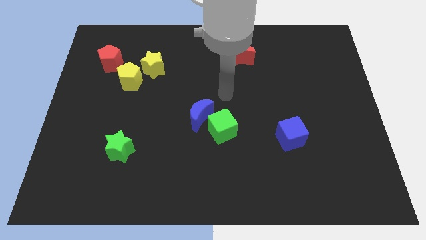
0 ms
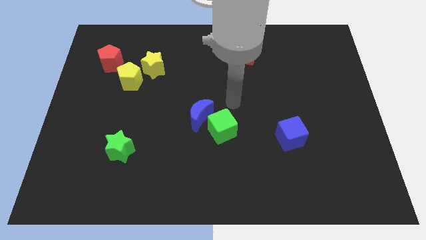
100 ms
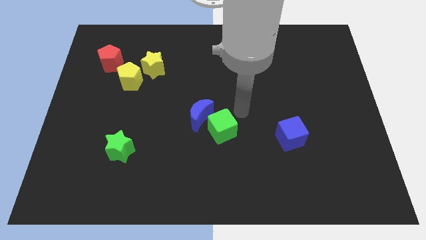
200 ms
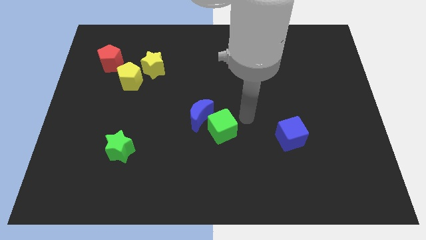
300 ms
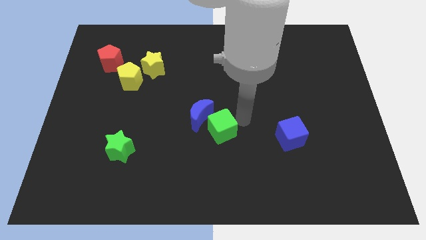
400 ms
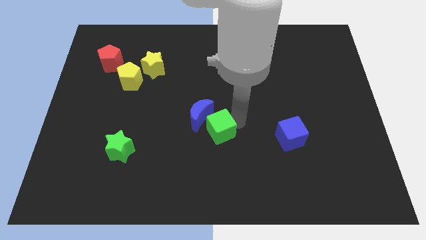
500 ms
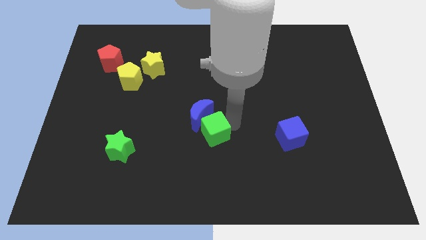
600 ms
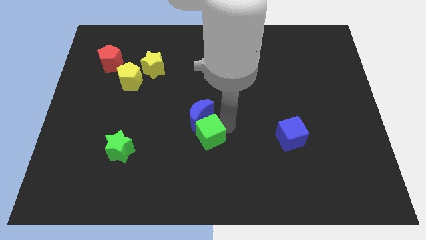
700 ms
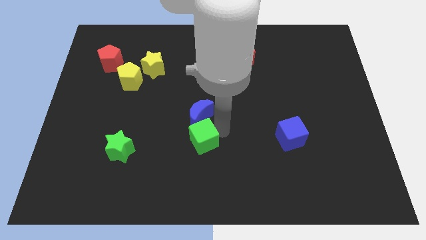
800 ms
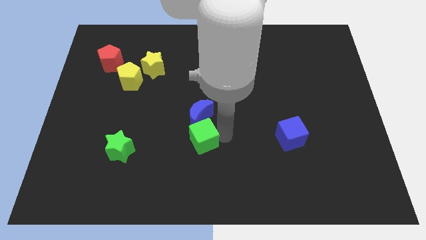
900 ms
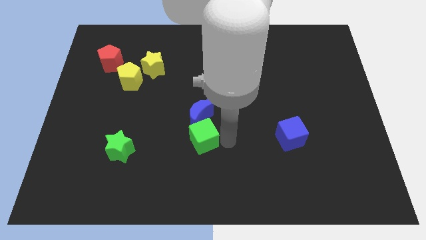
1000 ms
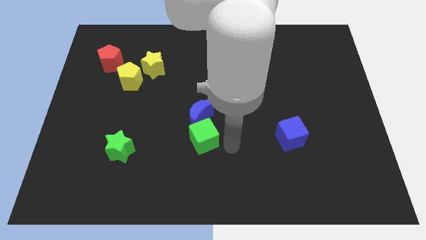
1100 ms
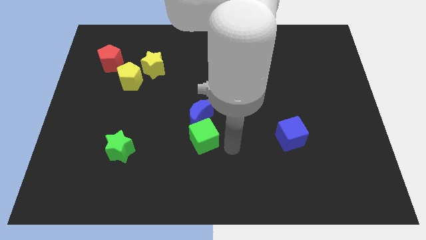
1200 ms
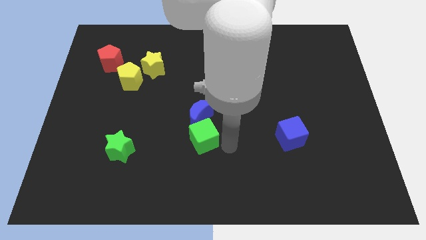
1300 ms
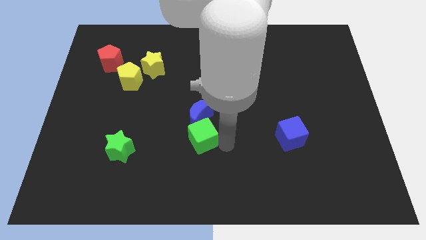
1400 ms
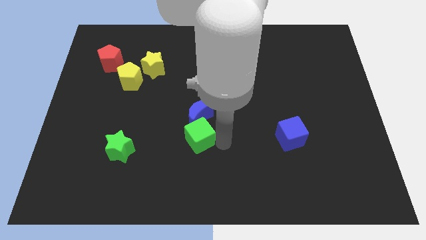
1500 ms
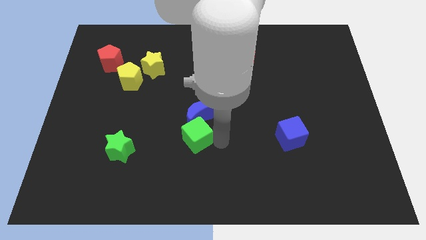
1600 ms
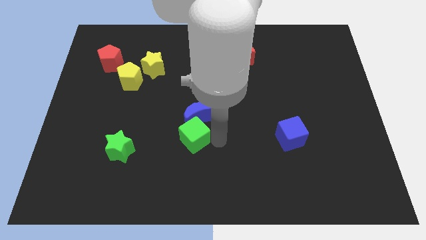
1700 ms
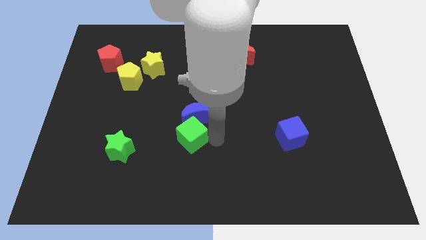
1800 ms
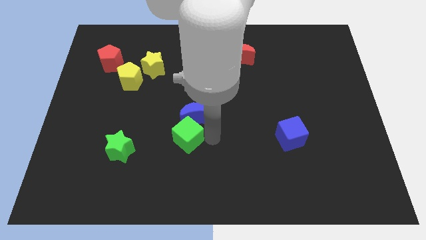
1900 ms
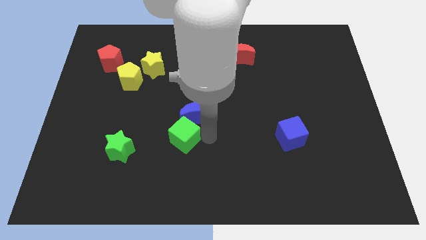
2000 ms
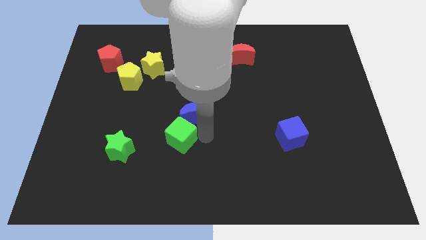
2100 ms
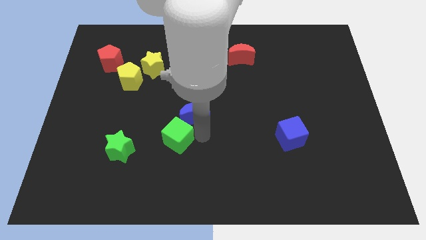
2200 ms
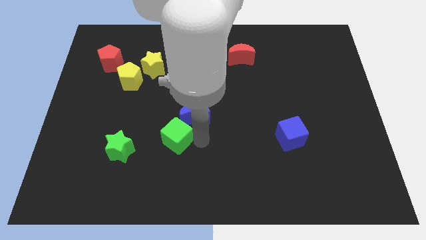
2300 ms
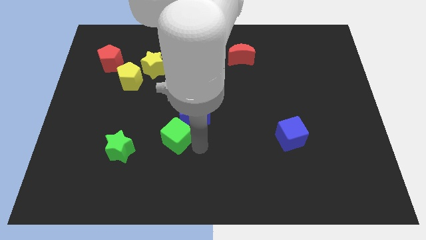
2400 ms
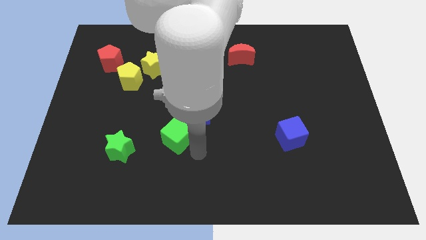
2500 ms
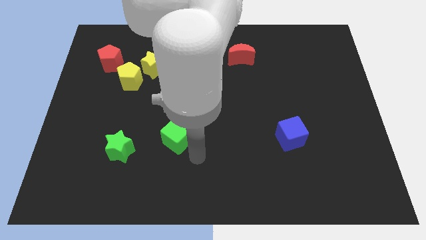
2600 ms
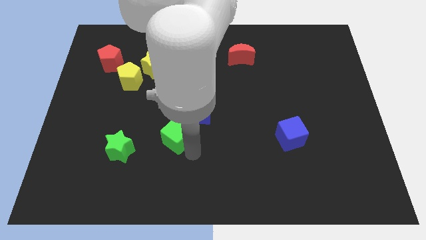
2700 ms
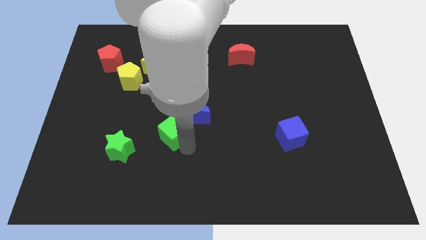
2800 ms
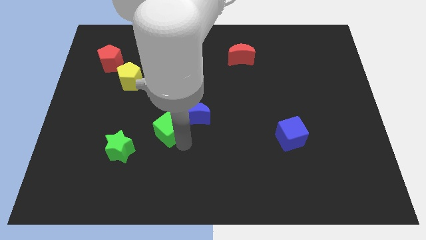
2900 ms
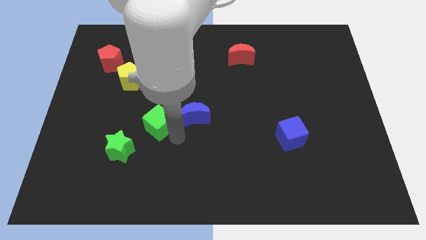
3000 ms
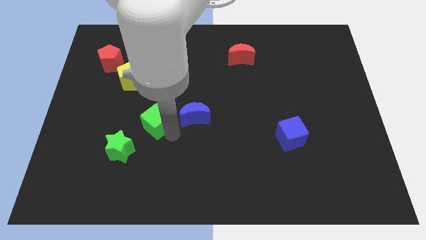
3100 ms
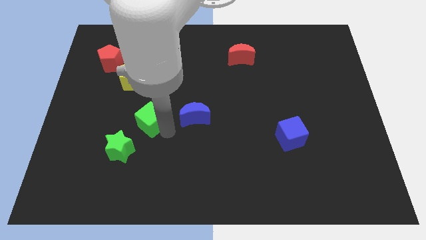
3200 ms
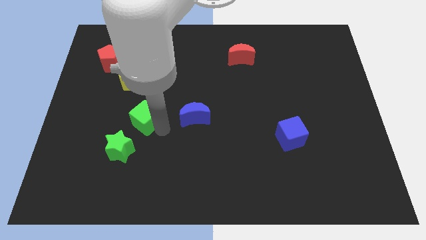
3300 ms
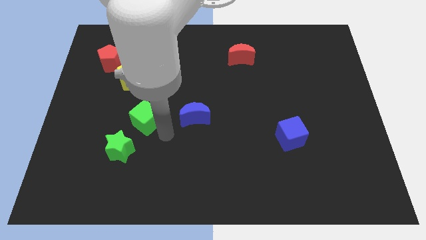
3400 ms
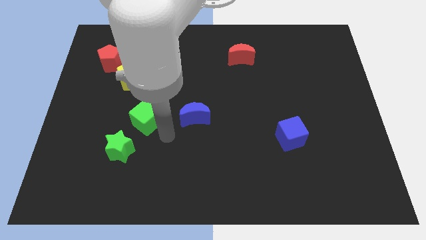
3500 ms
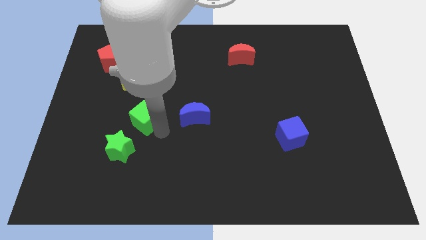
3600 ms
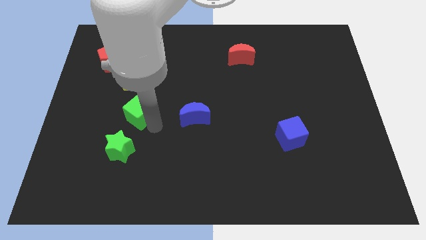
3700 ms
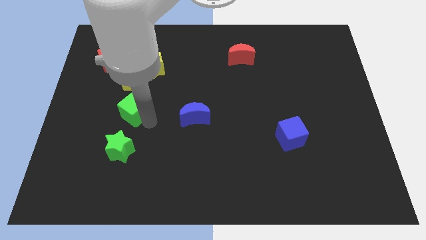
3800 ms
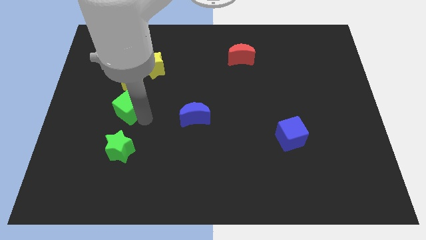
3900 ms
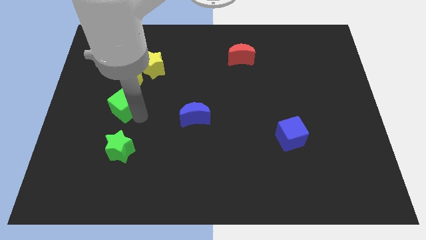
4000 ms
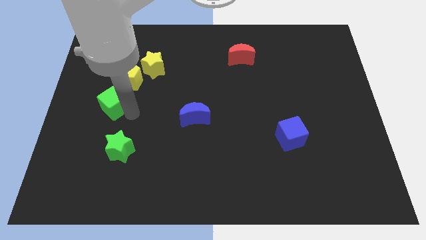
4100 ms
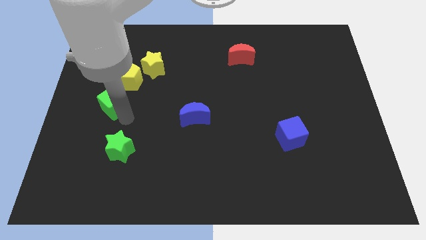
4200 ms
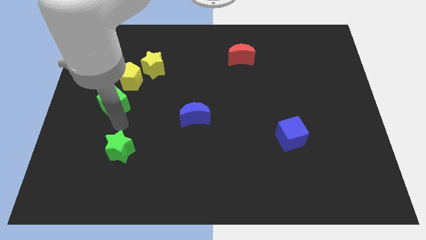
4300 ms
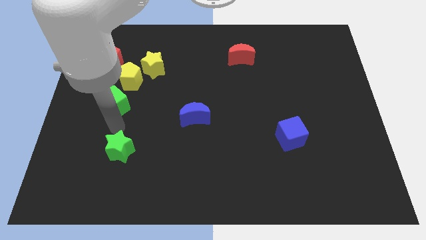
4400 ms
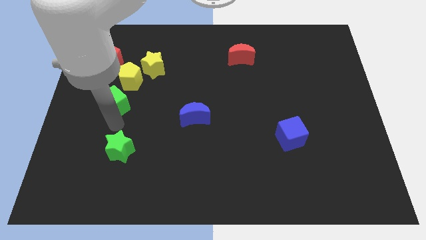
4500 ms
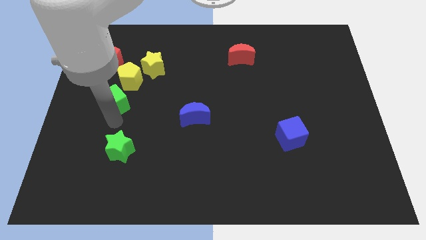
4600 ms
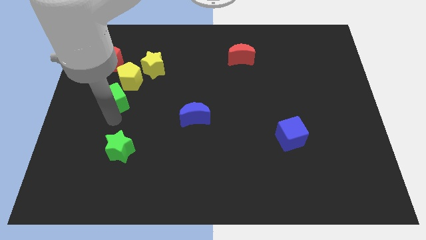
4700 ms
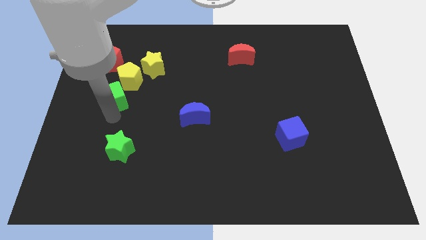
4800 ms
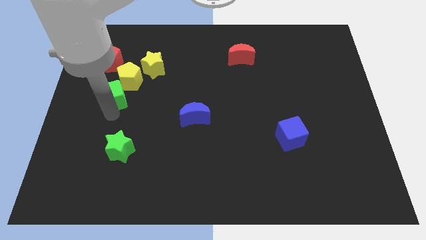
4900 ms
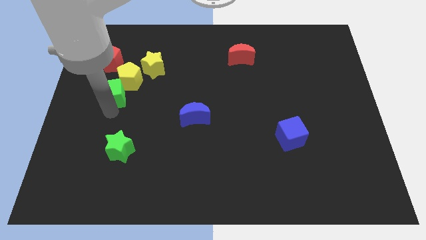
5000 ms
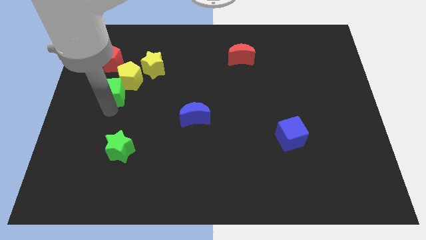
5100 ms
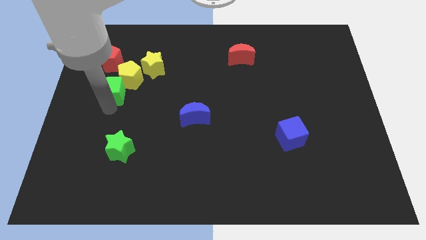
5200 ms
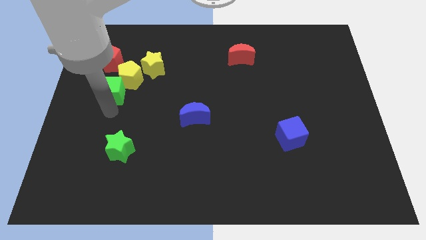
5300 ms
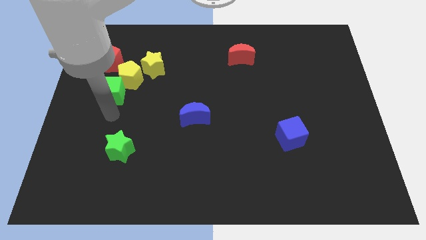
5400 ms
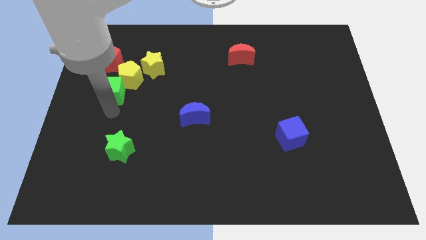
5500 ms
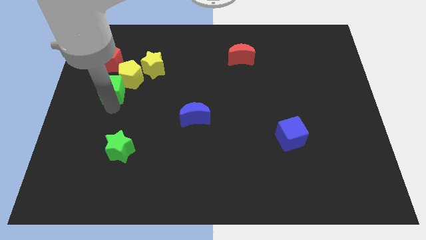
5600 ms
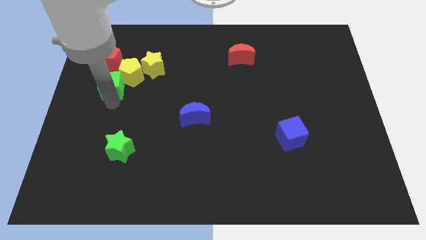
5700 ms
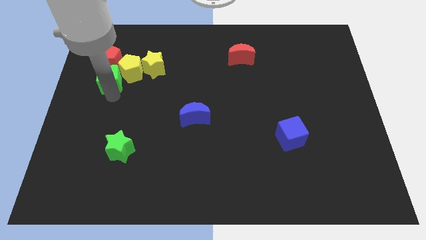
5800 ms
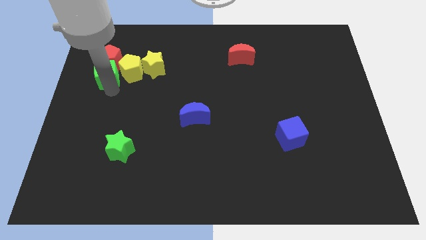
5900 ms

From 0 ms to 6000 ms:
slide the green cube close to the red pentagon

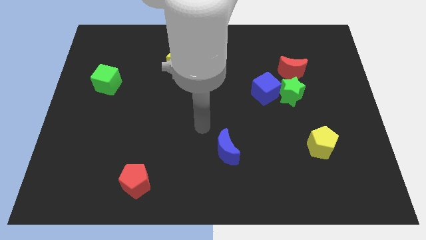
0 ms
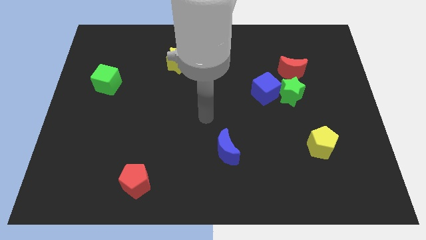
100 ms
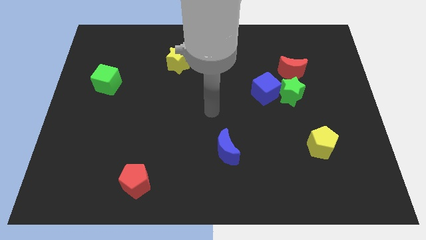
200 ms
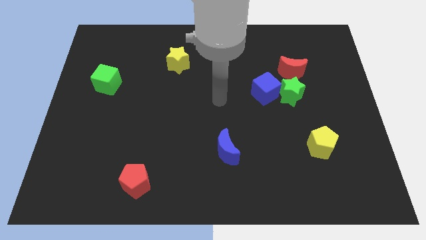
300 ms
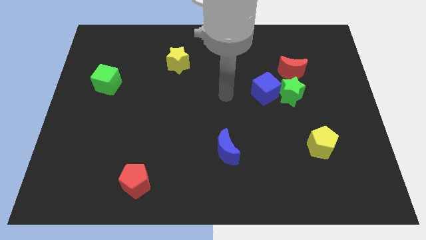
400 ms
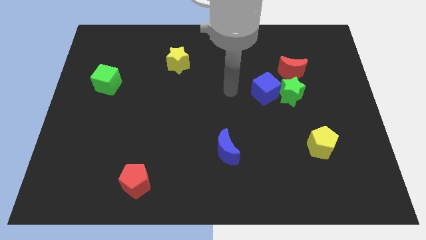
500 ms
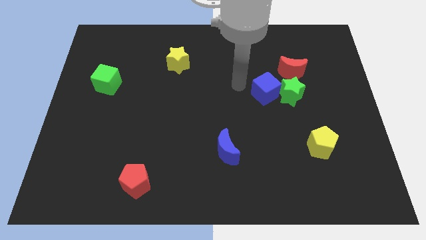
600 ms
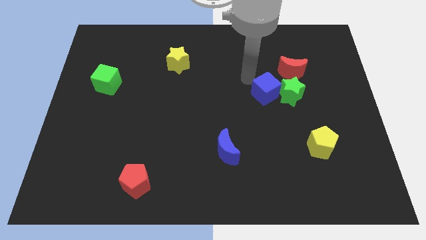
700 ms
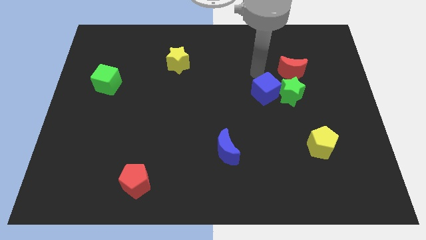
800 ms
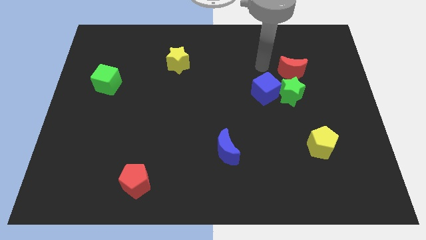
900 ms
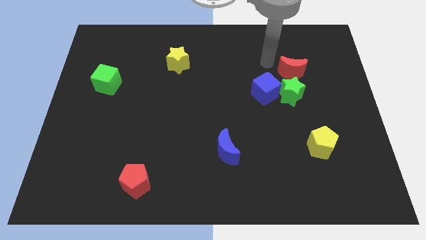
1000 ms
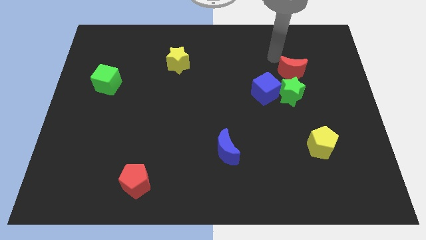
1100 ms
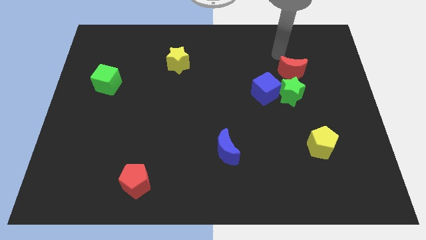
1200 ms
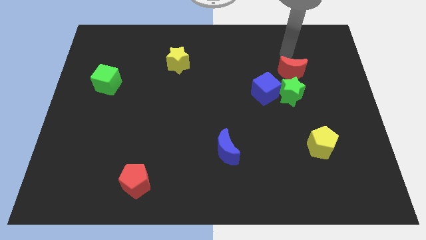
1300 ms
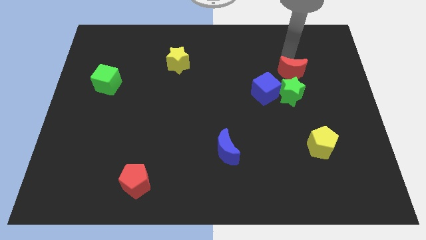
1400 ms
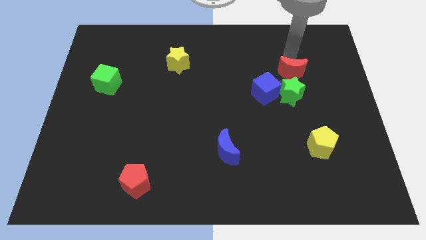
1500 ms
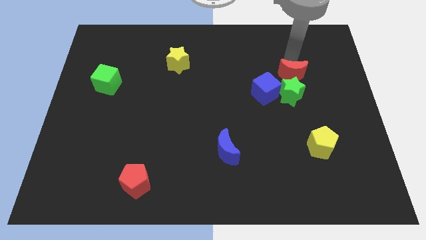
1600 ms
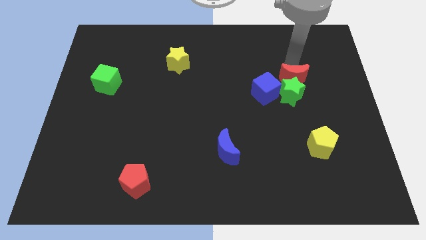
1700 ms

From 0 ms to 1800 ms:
move the red moon to the green star
